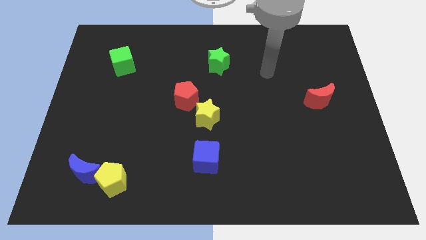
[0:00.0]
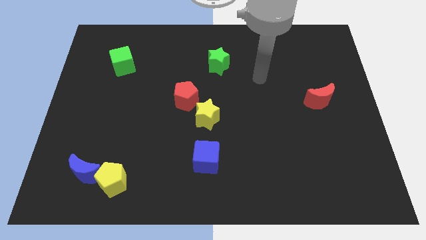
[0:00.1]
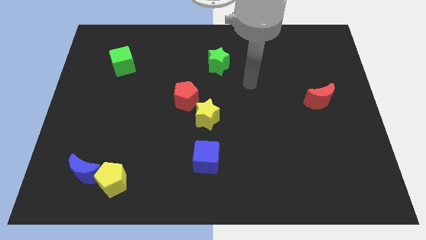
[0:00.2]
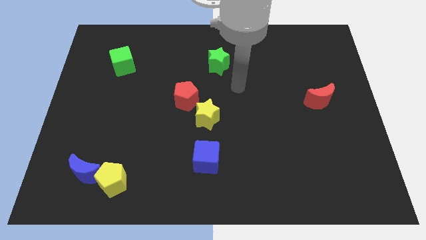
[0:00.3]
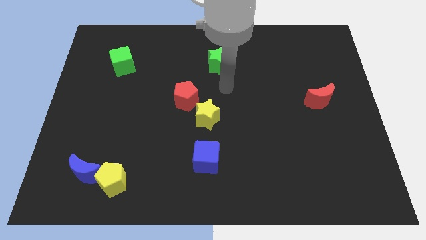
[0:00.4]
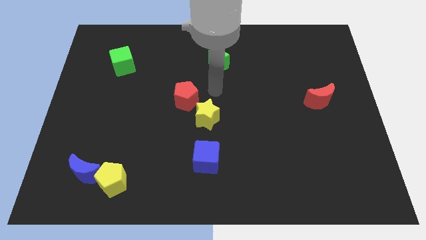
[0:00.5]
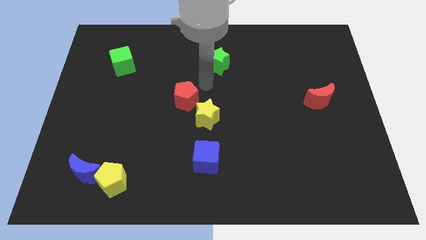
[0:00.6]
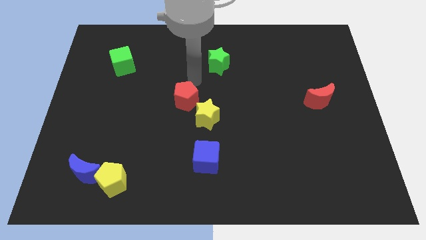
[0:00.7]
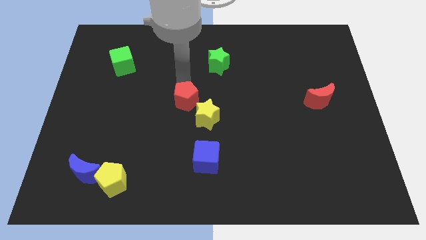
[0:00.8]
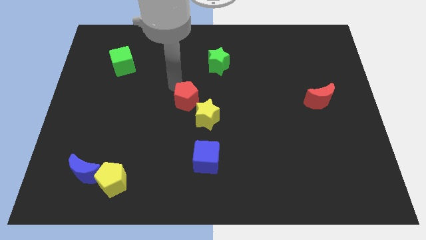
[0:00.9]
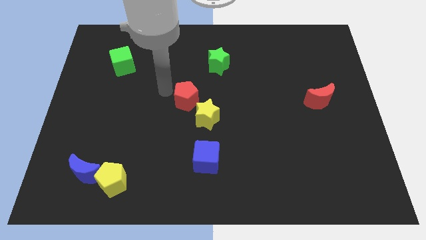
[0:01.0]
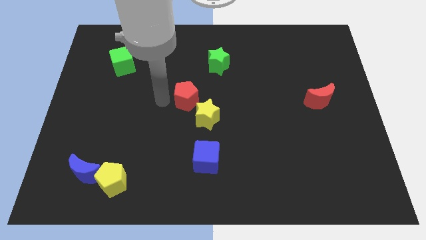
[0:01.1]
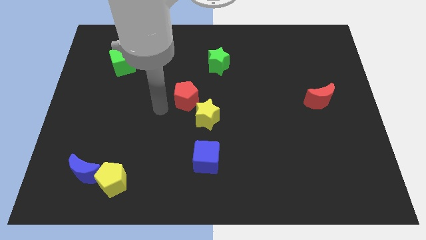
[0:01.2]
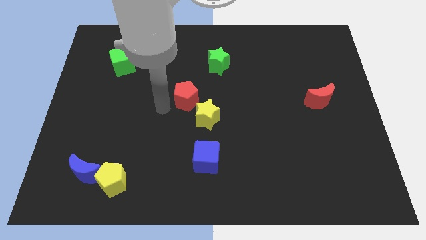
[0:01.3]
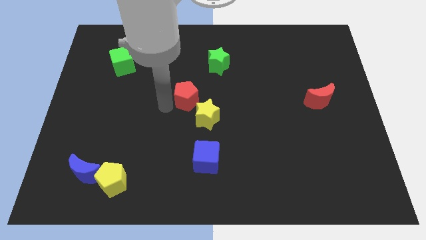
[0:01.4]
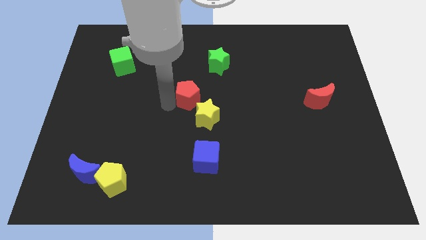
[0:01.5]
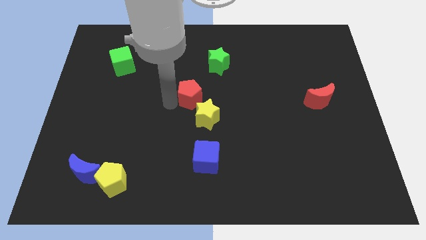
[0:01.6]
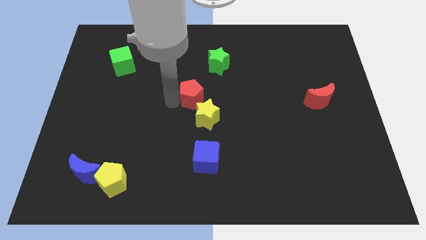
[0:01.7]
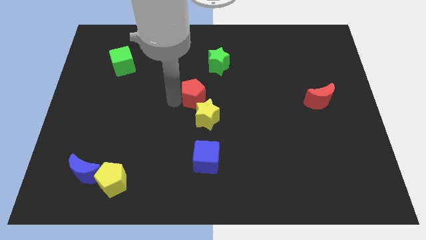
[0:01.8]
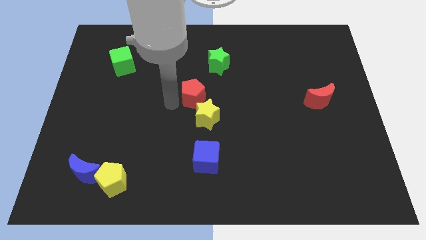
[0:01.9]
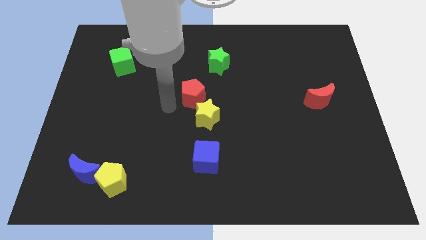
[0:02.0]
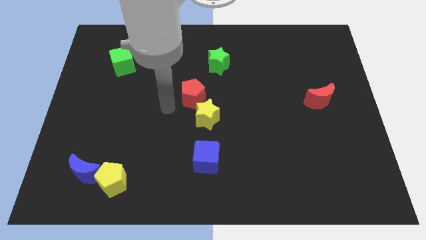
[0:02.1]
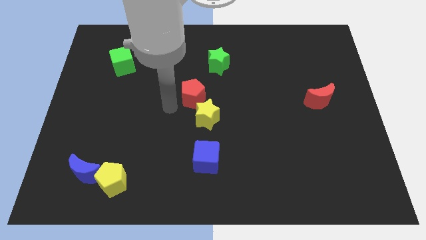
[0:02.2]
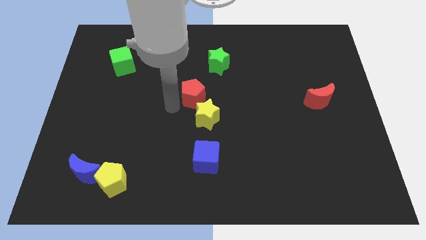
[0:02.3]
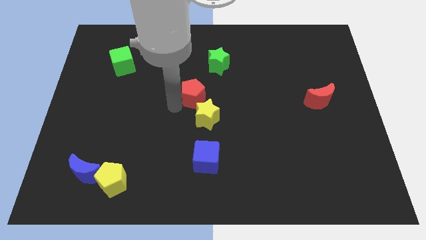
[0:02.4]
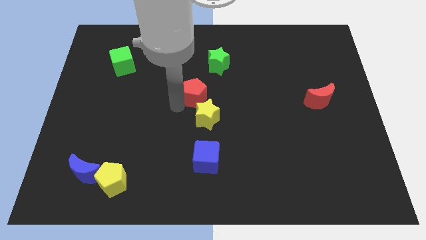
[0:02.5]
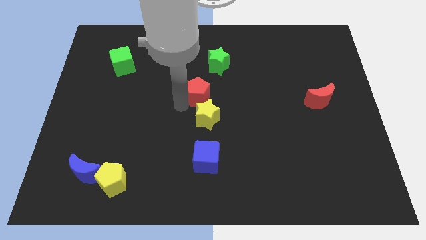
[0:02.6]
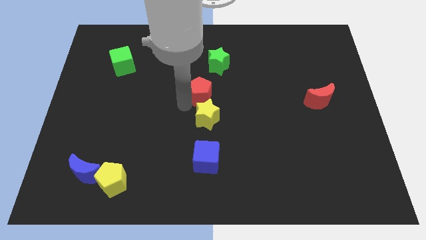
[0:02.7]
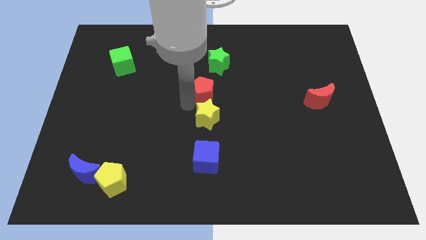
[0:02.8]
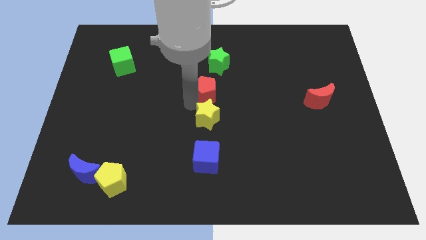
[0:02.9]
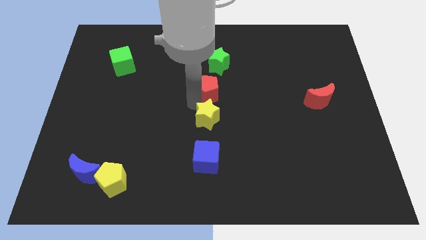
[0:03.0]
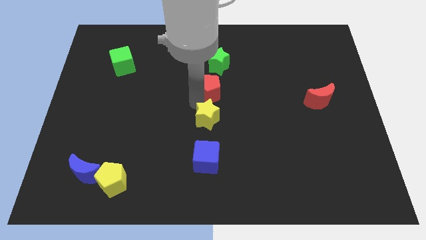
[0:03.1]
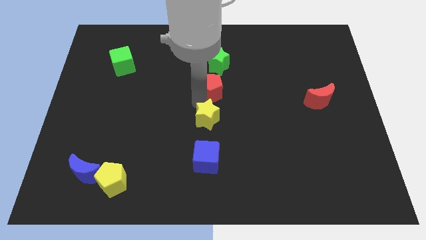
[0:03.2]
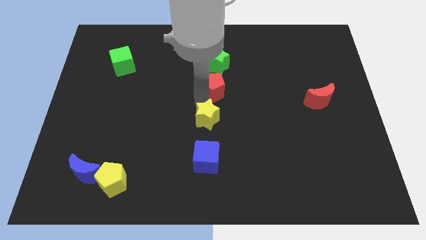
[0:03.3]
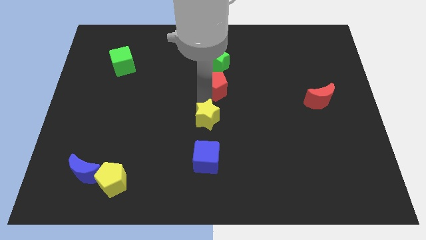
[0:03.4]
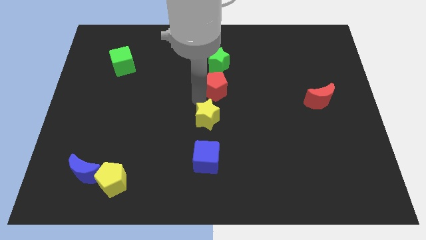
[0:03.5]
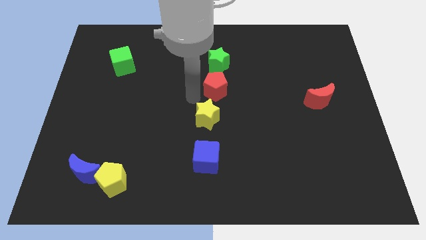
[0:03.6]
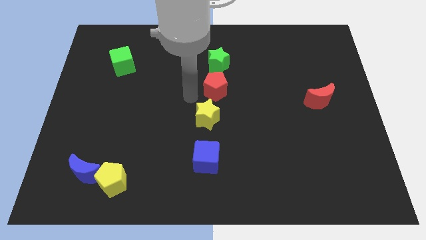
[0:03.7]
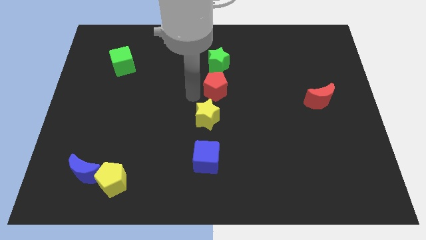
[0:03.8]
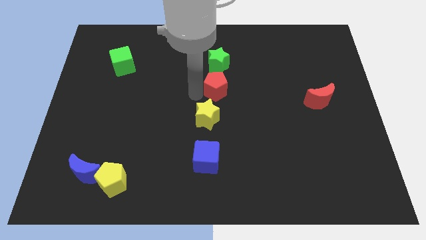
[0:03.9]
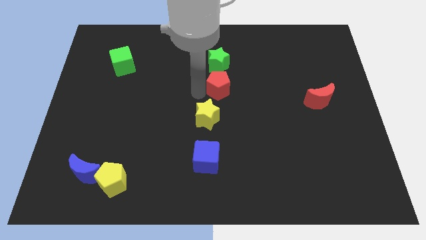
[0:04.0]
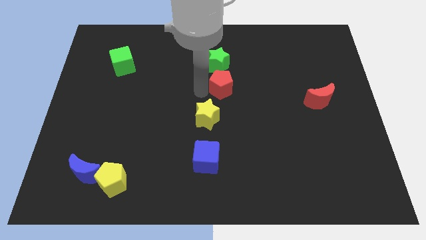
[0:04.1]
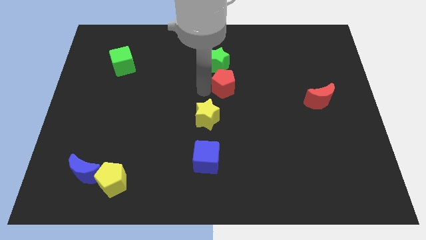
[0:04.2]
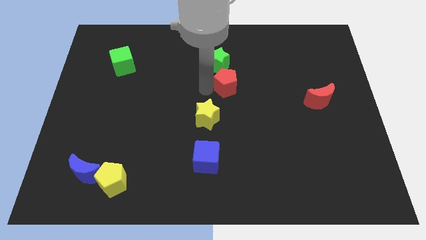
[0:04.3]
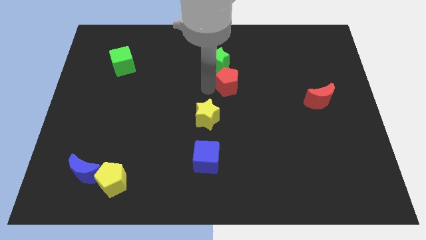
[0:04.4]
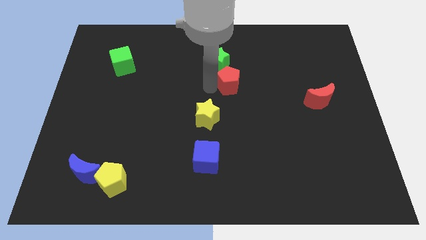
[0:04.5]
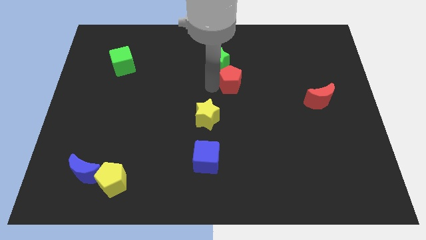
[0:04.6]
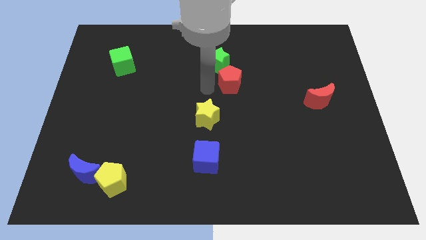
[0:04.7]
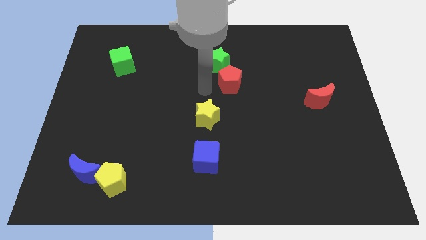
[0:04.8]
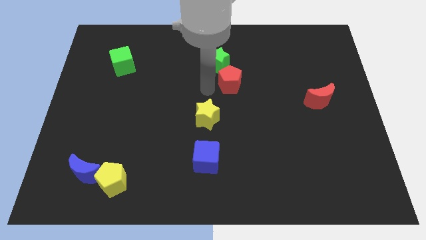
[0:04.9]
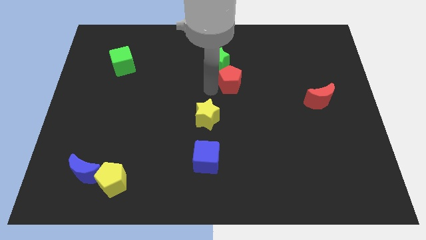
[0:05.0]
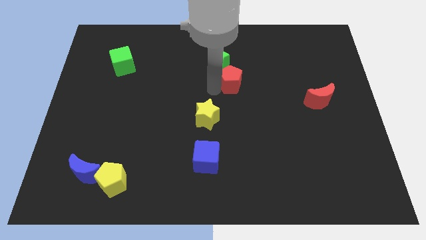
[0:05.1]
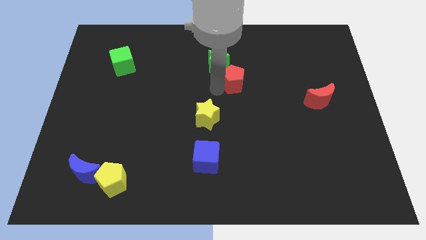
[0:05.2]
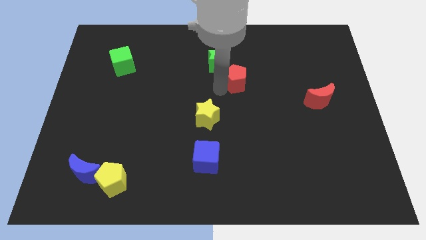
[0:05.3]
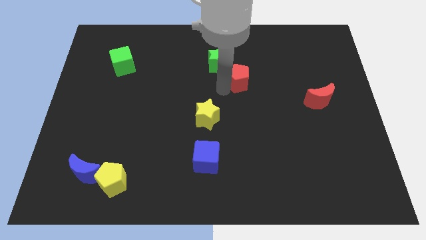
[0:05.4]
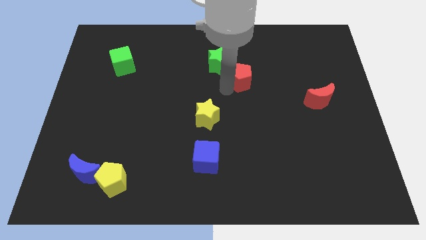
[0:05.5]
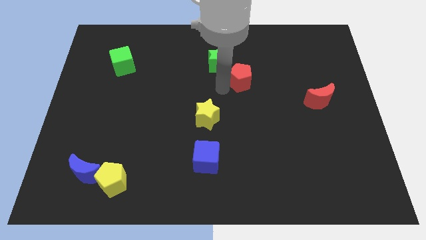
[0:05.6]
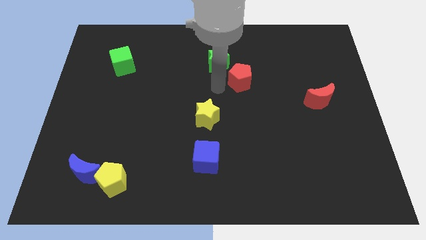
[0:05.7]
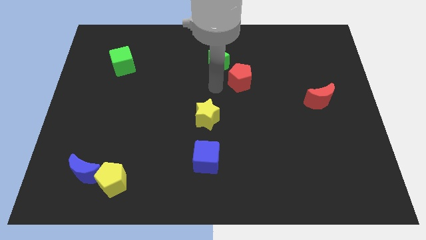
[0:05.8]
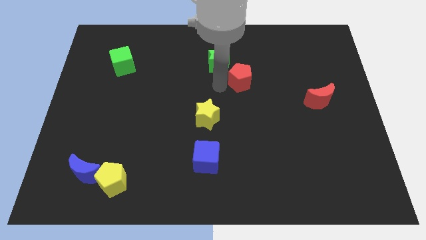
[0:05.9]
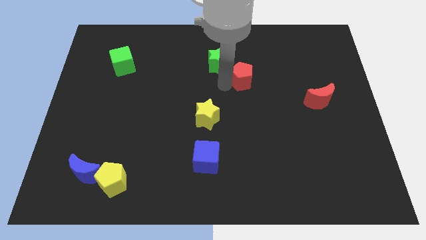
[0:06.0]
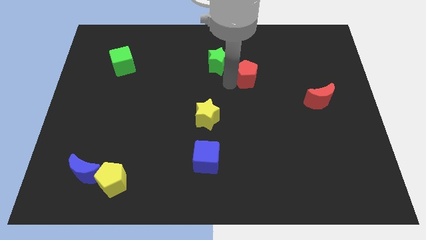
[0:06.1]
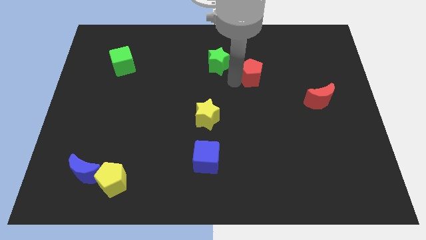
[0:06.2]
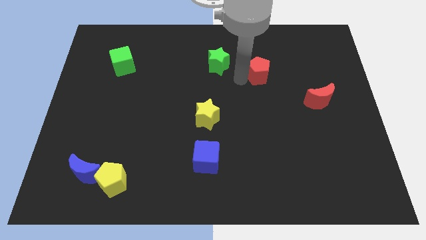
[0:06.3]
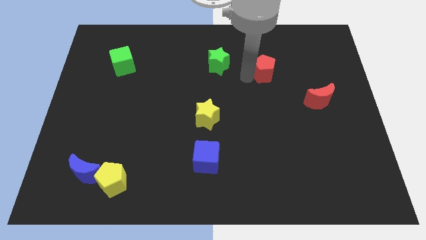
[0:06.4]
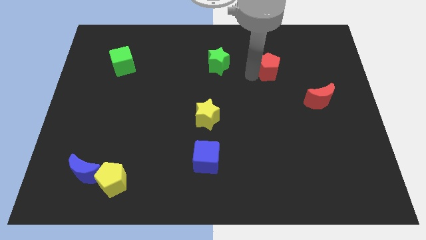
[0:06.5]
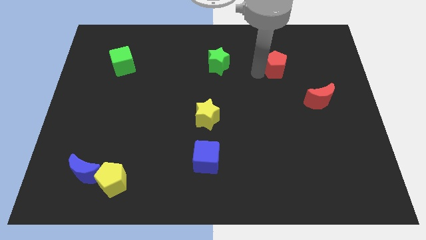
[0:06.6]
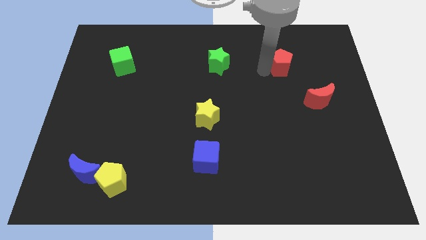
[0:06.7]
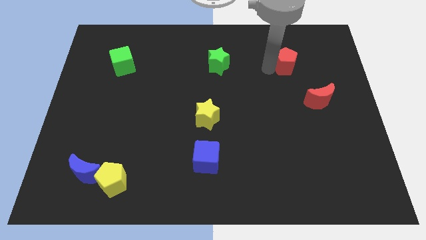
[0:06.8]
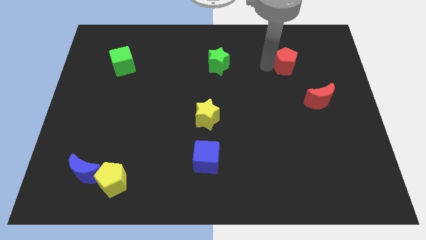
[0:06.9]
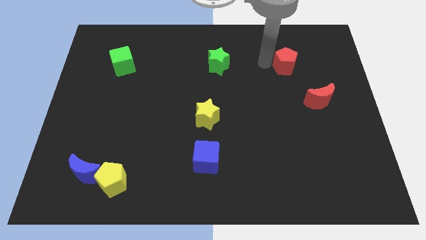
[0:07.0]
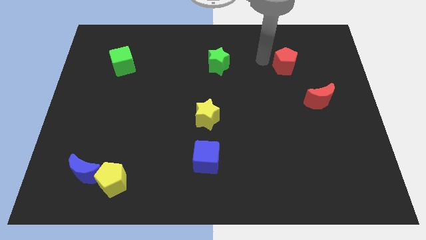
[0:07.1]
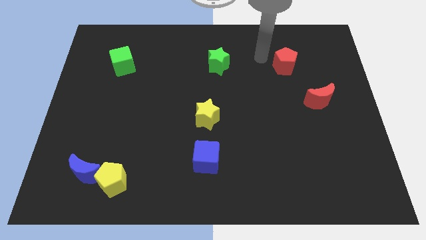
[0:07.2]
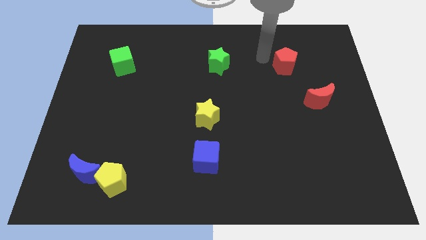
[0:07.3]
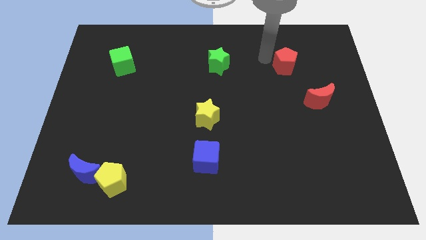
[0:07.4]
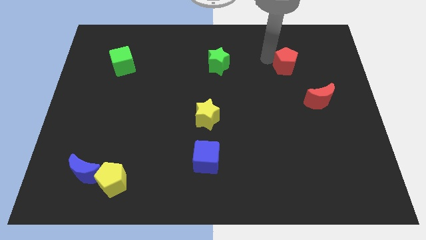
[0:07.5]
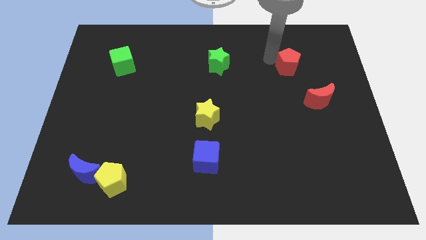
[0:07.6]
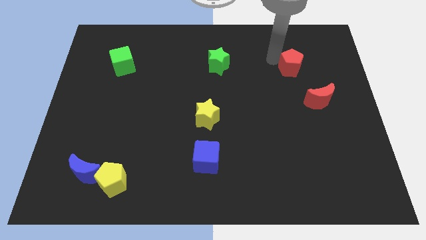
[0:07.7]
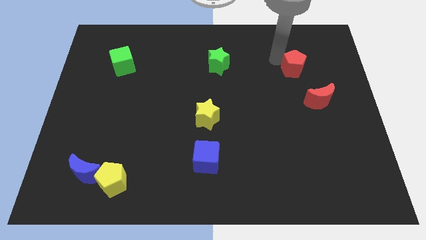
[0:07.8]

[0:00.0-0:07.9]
slide the red pentagon to the top of the red moon
